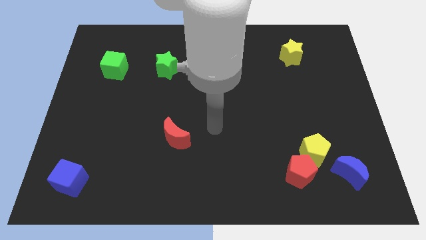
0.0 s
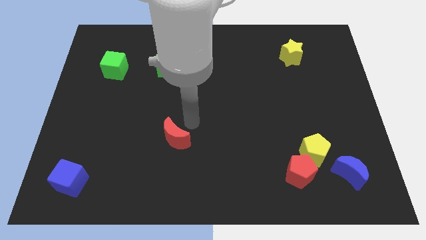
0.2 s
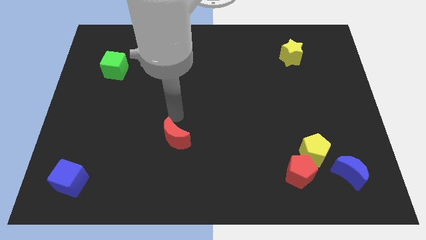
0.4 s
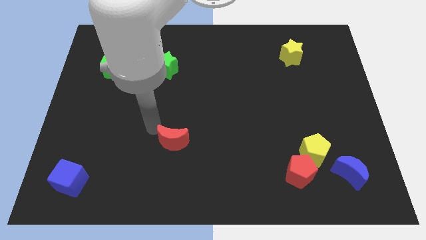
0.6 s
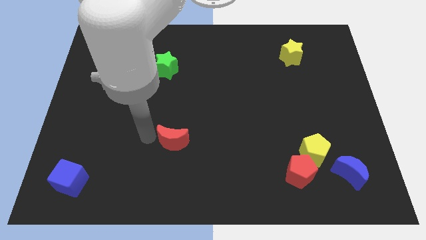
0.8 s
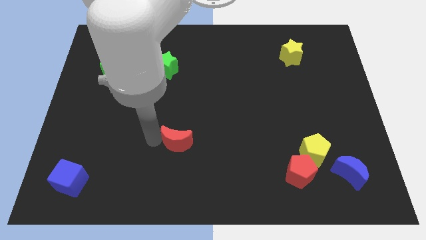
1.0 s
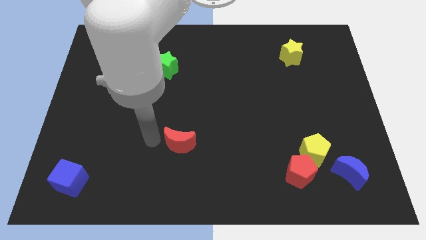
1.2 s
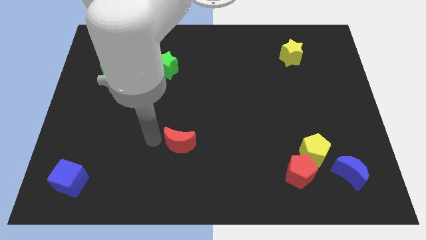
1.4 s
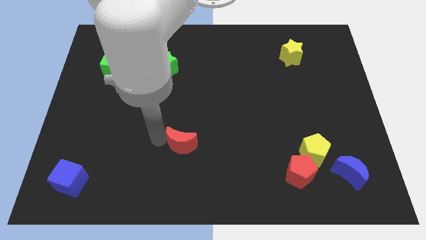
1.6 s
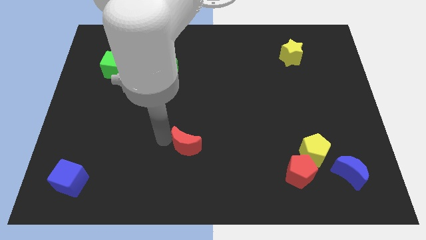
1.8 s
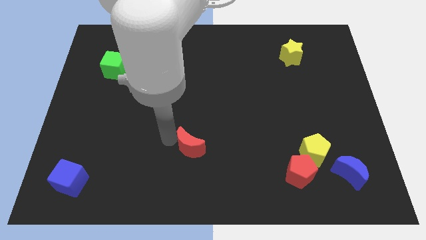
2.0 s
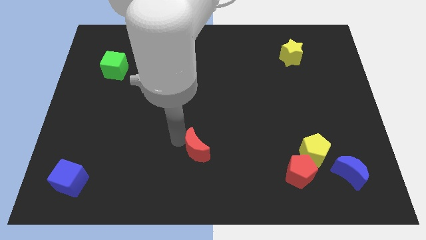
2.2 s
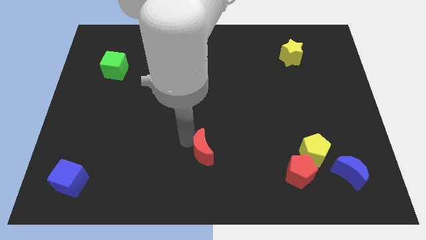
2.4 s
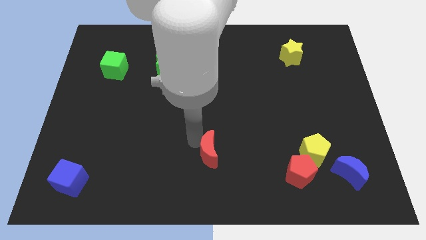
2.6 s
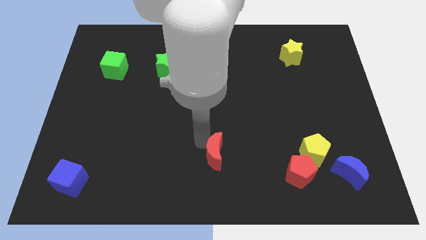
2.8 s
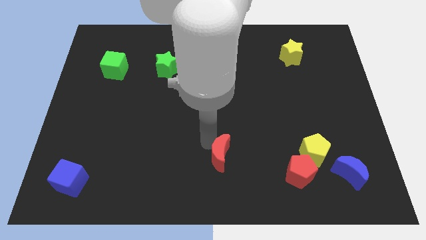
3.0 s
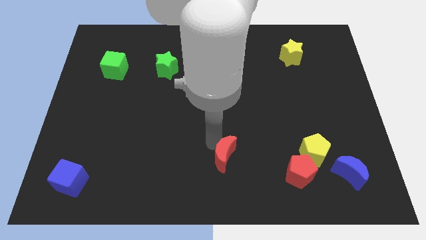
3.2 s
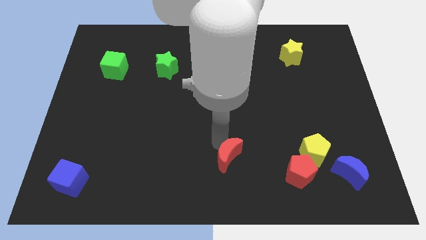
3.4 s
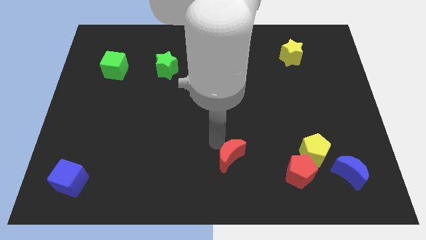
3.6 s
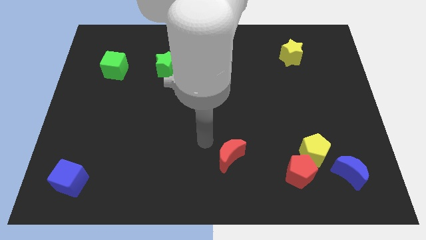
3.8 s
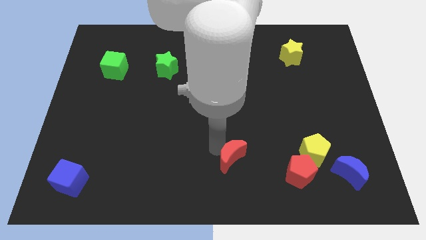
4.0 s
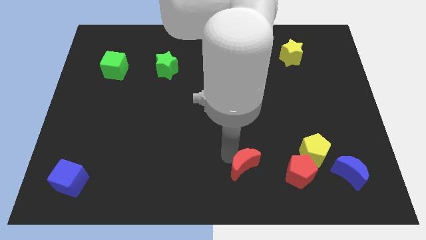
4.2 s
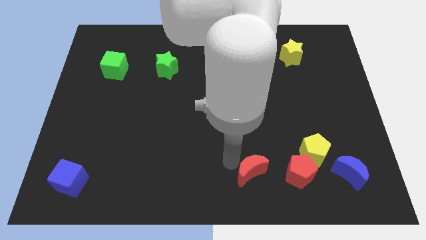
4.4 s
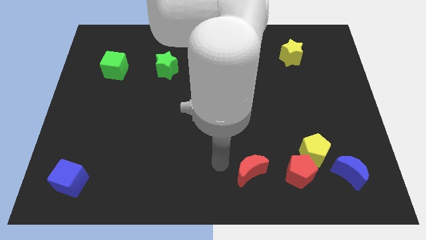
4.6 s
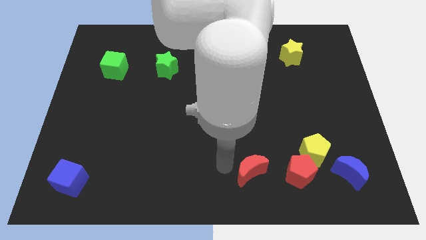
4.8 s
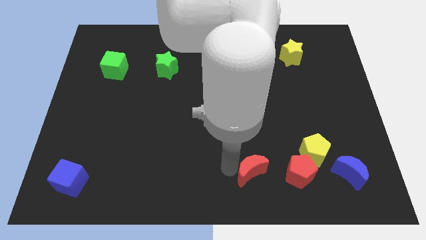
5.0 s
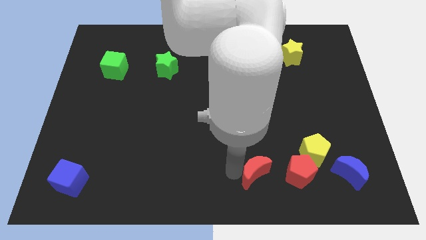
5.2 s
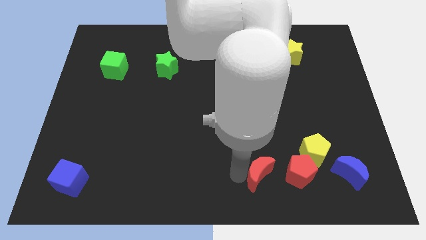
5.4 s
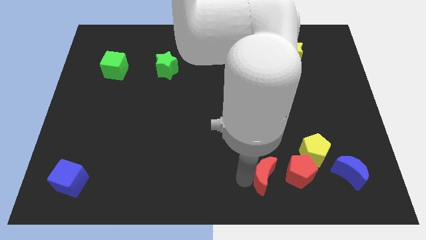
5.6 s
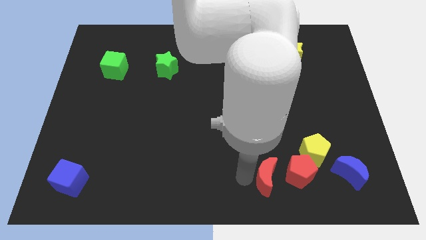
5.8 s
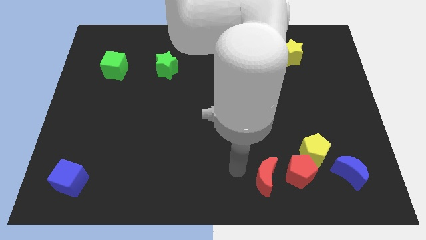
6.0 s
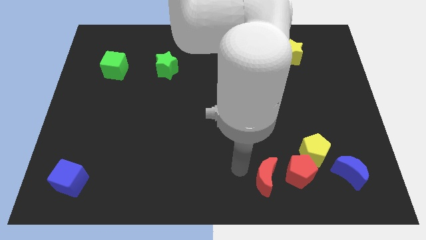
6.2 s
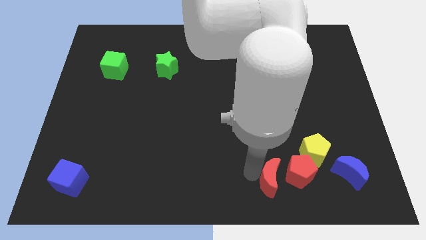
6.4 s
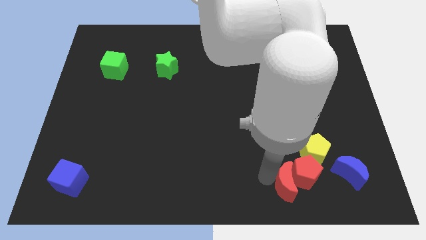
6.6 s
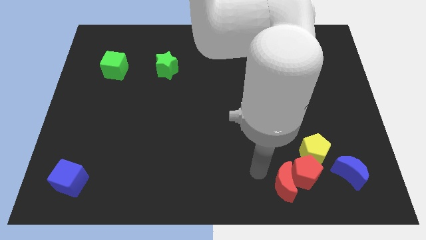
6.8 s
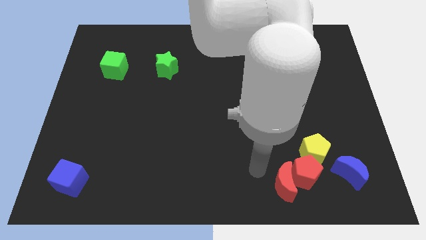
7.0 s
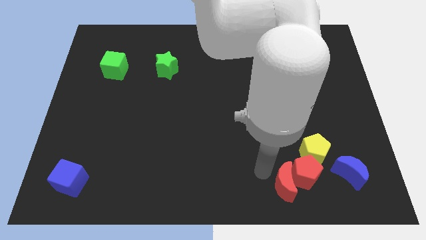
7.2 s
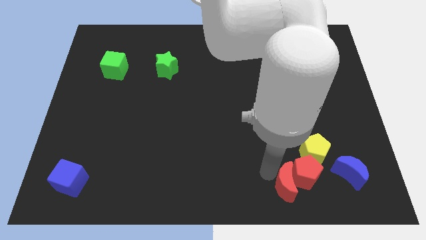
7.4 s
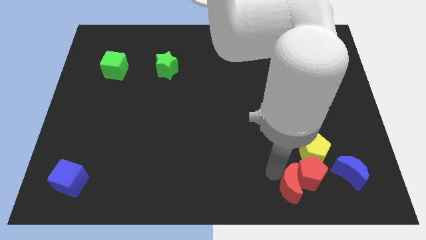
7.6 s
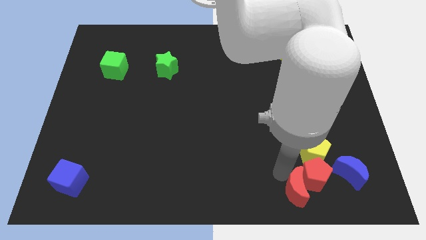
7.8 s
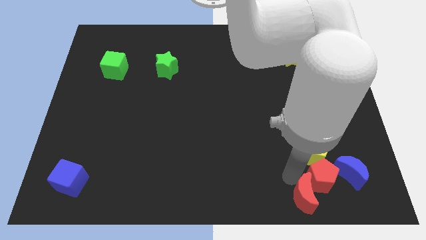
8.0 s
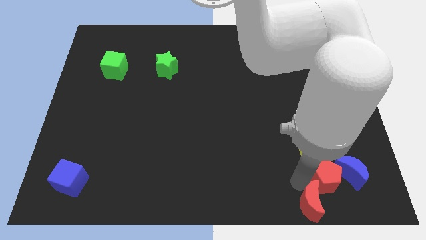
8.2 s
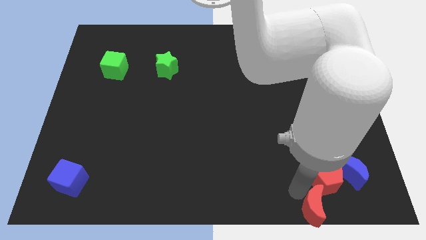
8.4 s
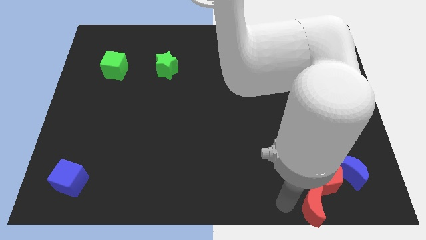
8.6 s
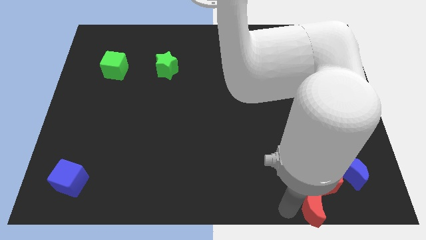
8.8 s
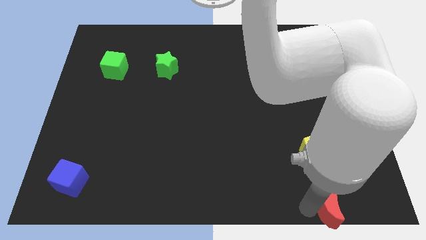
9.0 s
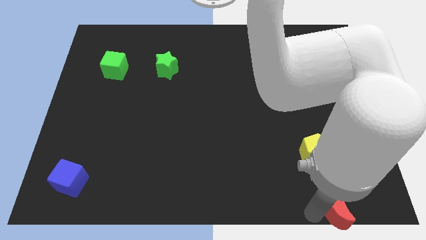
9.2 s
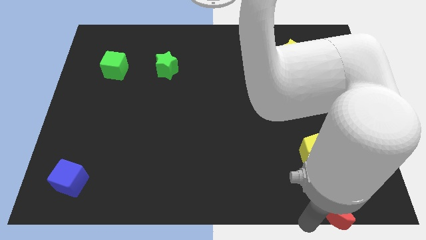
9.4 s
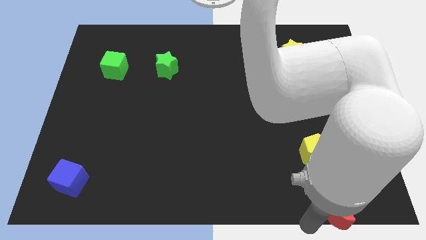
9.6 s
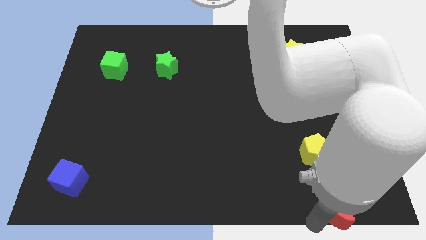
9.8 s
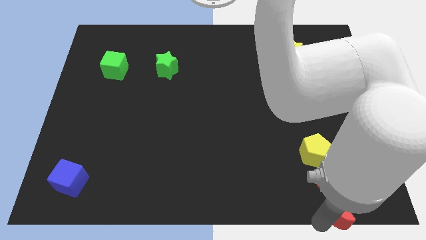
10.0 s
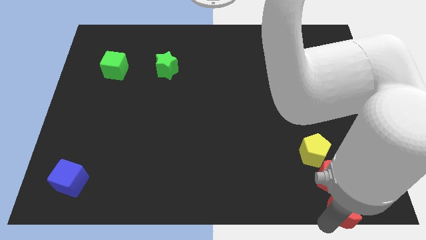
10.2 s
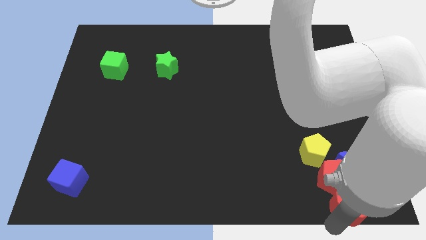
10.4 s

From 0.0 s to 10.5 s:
slide the red moon to the bottom right

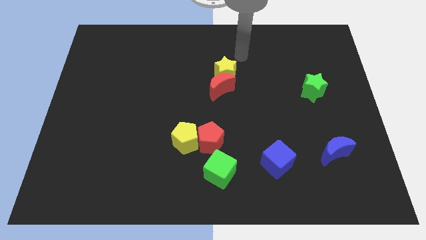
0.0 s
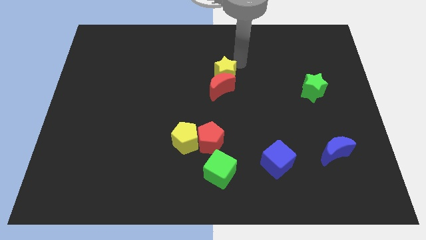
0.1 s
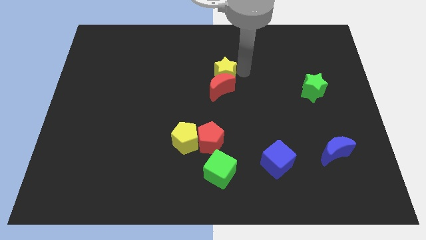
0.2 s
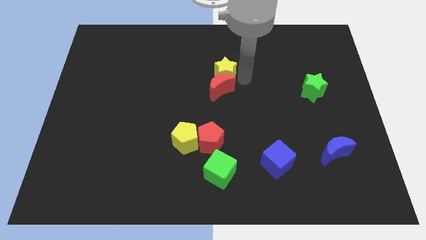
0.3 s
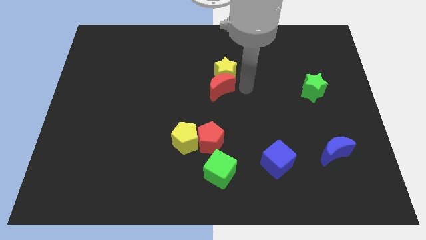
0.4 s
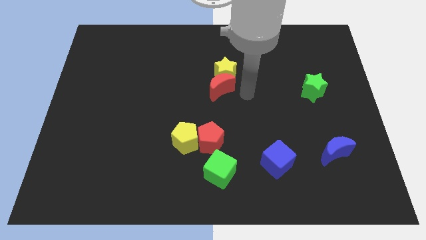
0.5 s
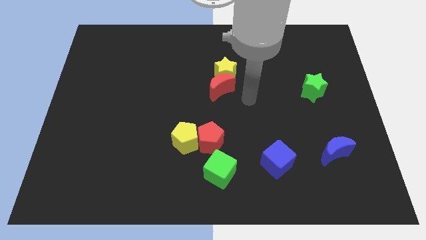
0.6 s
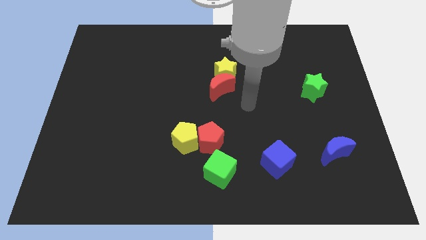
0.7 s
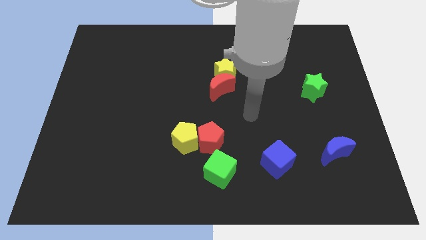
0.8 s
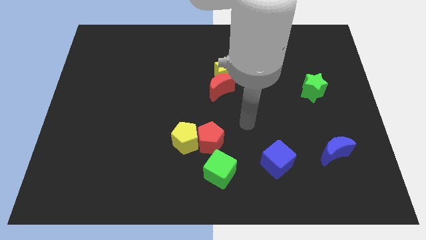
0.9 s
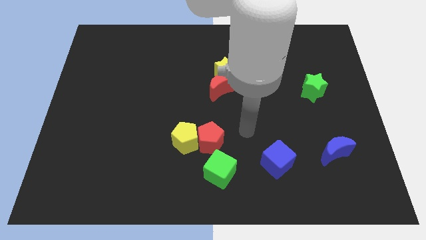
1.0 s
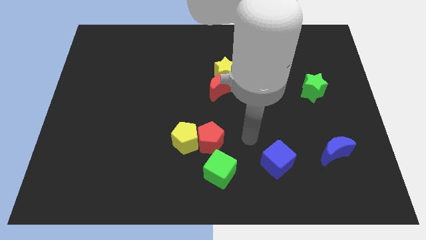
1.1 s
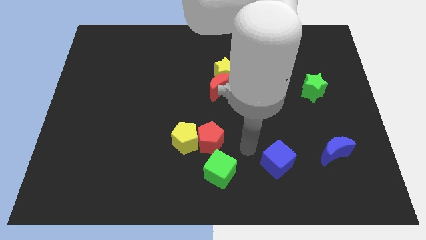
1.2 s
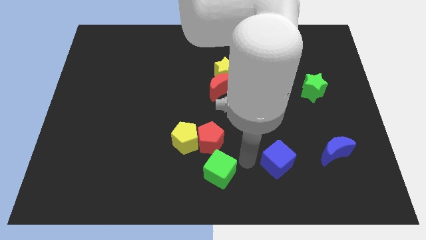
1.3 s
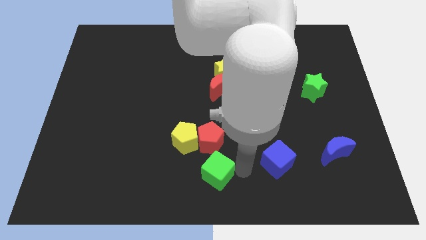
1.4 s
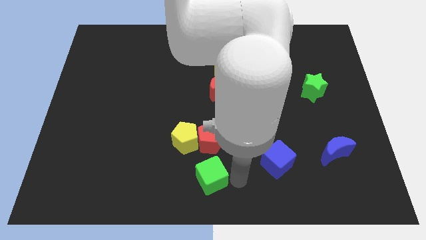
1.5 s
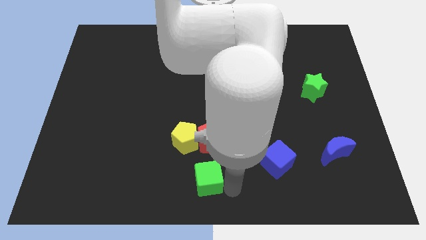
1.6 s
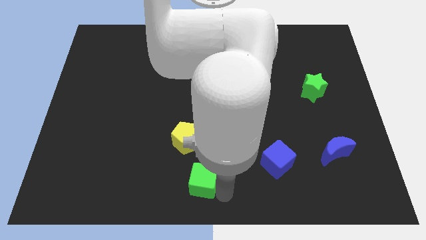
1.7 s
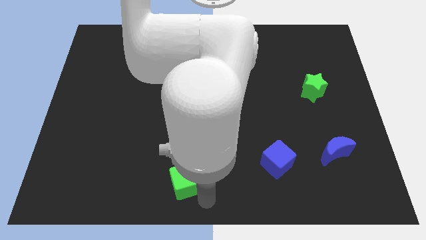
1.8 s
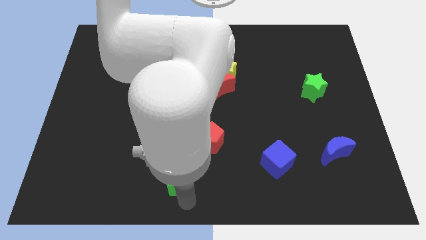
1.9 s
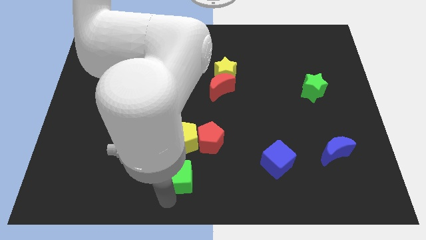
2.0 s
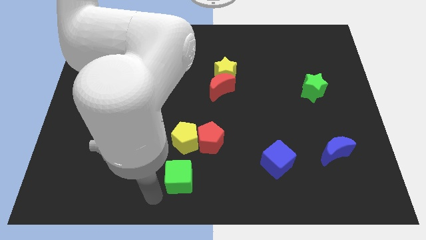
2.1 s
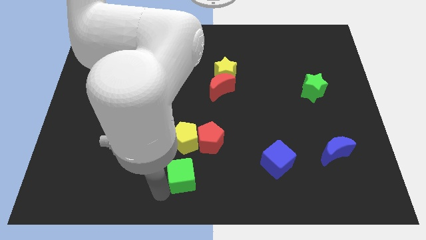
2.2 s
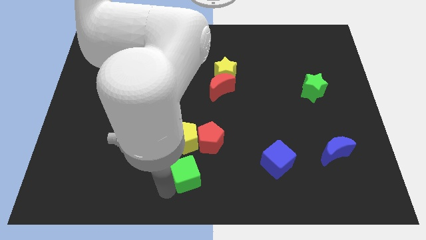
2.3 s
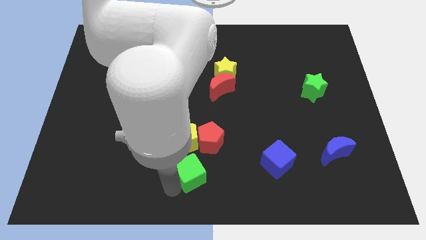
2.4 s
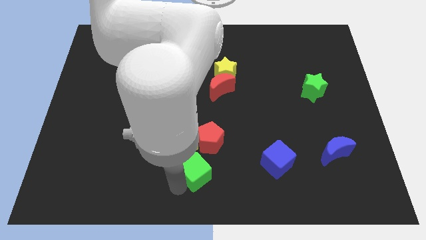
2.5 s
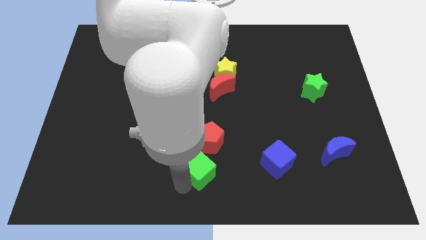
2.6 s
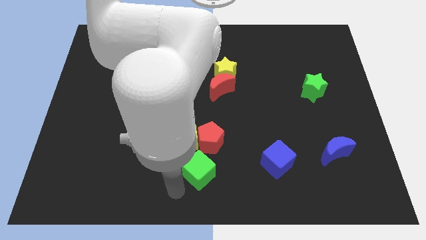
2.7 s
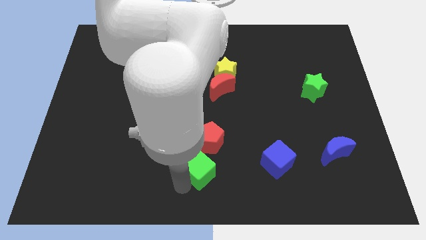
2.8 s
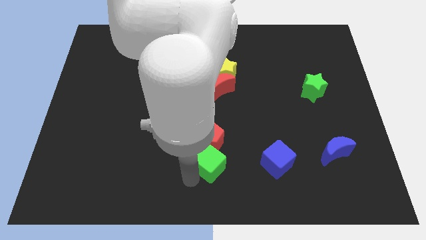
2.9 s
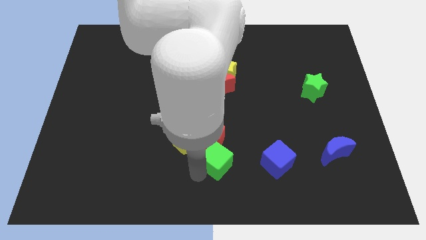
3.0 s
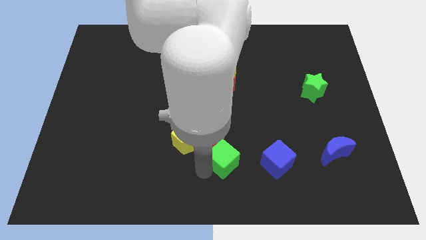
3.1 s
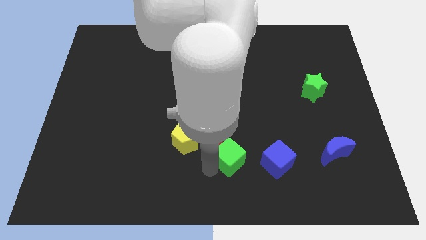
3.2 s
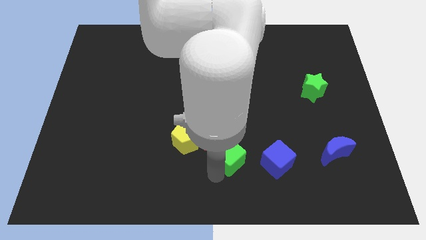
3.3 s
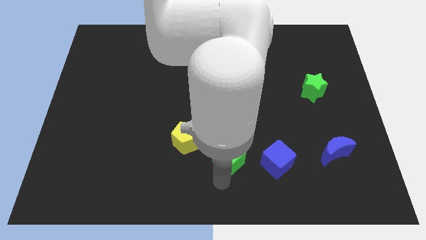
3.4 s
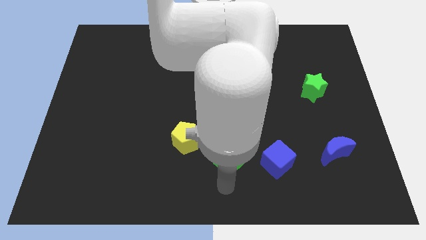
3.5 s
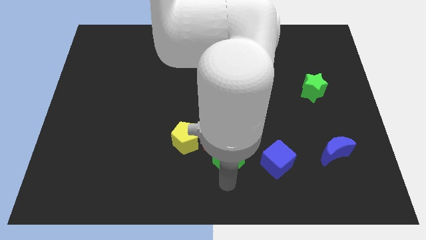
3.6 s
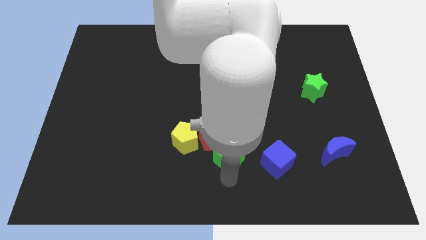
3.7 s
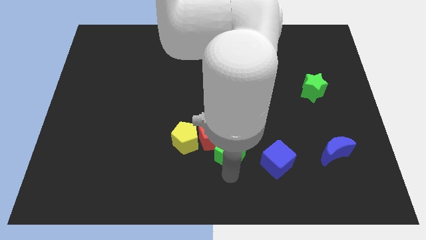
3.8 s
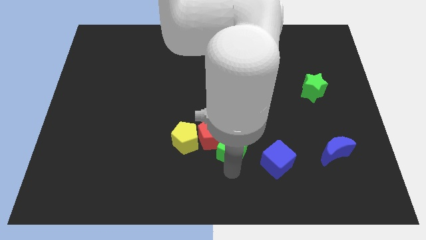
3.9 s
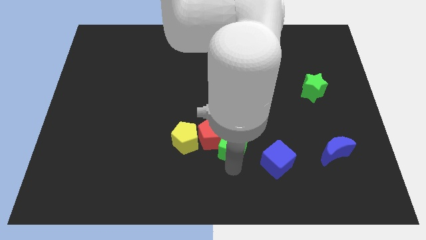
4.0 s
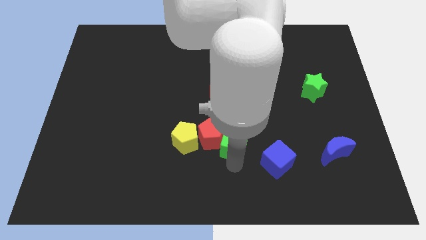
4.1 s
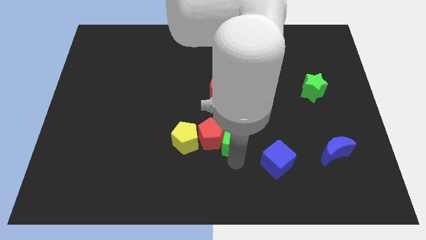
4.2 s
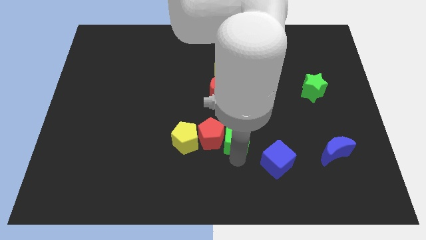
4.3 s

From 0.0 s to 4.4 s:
push the green cube to the center of the board
